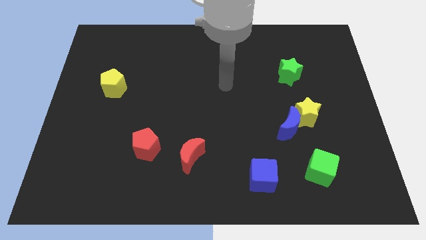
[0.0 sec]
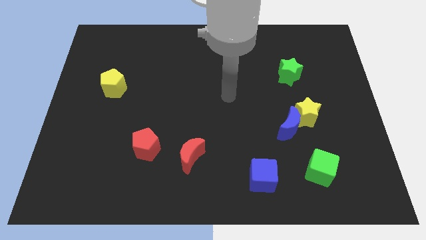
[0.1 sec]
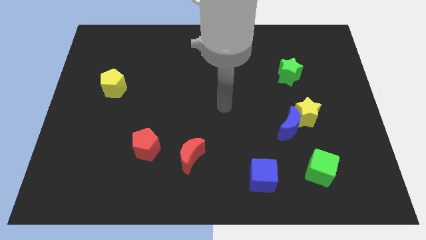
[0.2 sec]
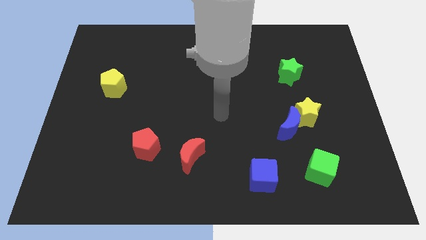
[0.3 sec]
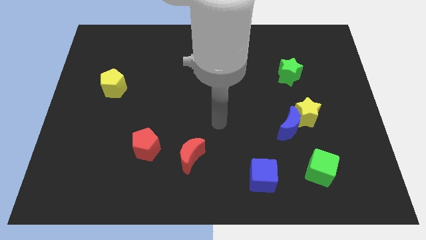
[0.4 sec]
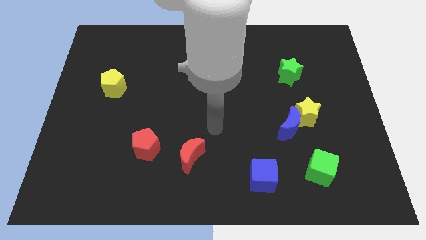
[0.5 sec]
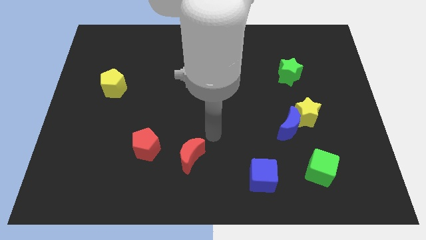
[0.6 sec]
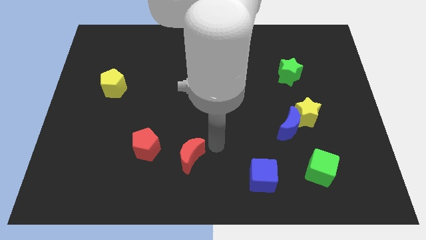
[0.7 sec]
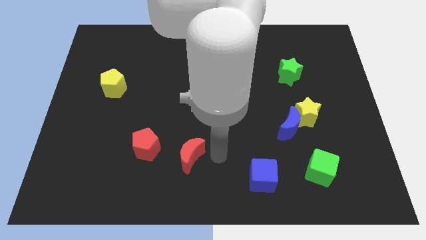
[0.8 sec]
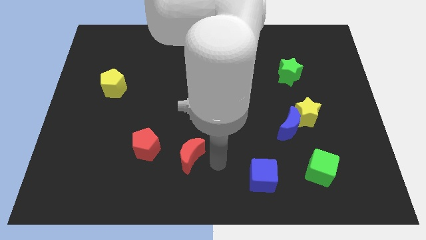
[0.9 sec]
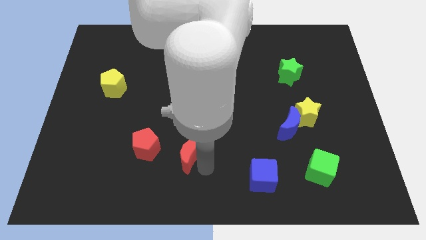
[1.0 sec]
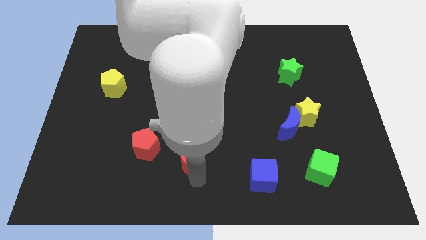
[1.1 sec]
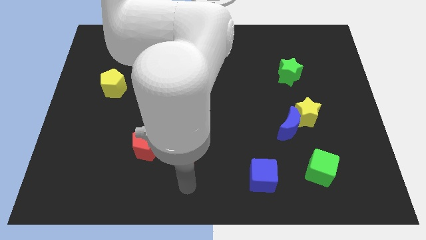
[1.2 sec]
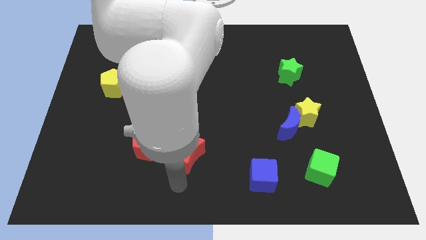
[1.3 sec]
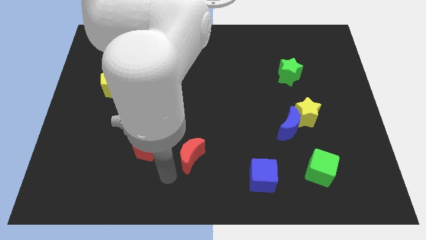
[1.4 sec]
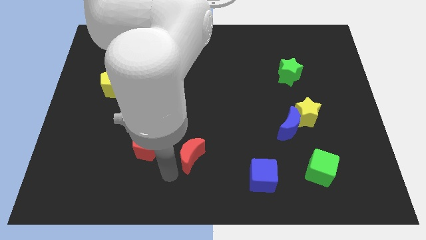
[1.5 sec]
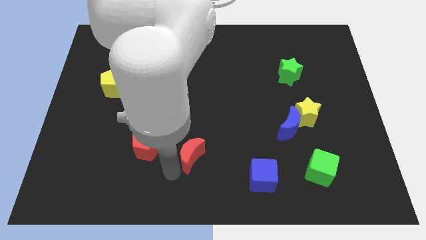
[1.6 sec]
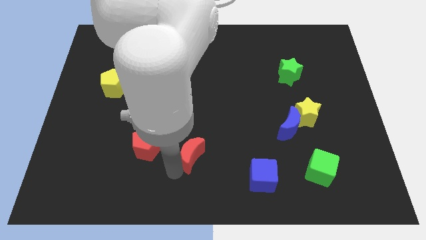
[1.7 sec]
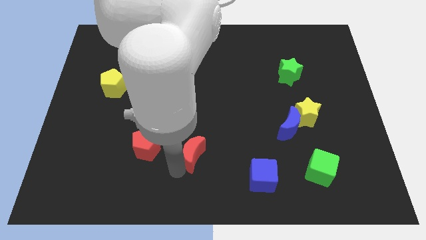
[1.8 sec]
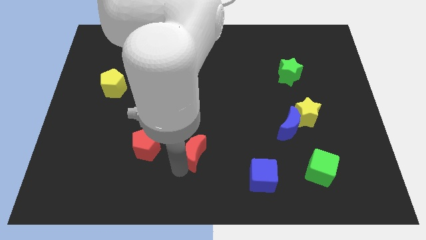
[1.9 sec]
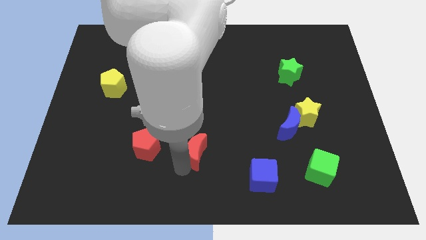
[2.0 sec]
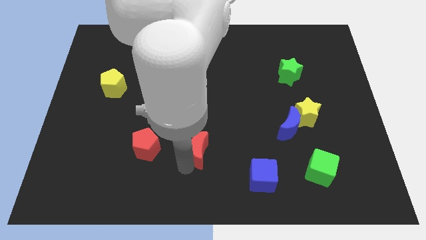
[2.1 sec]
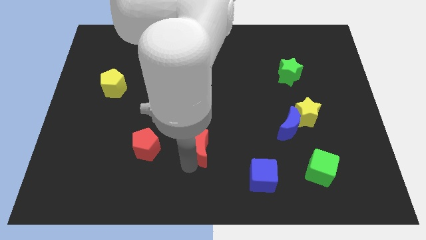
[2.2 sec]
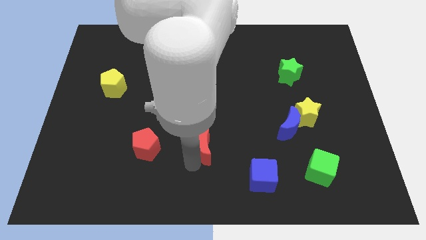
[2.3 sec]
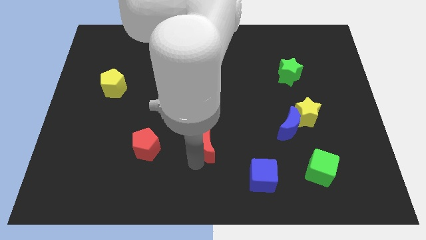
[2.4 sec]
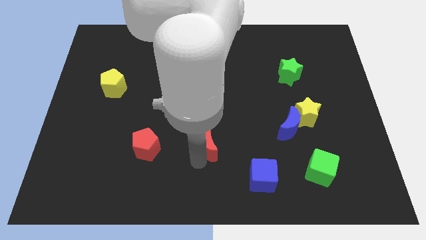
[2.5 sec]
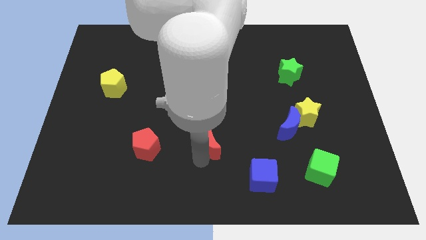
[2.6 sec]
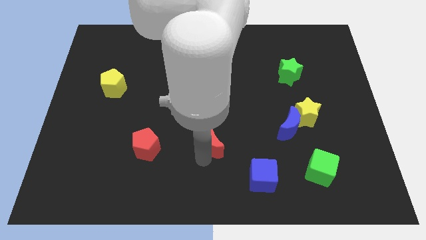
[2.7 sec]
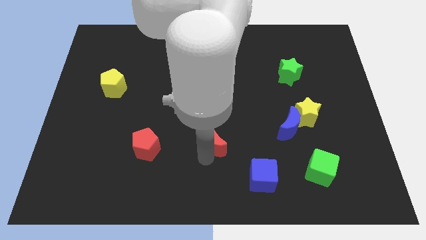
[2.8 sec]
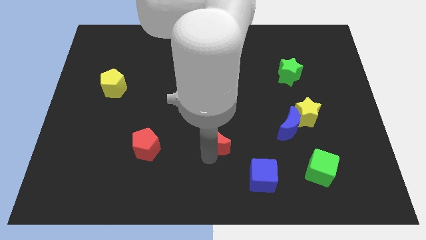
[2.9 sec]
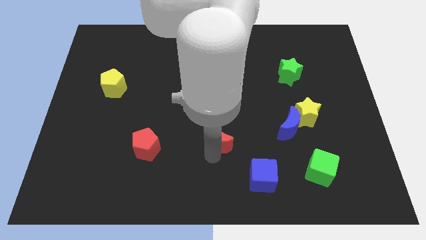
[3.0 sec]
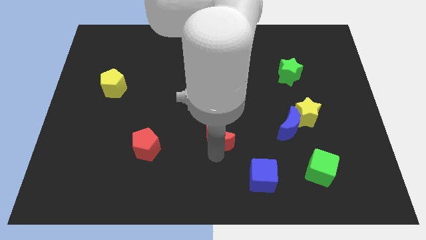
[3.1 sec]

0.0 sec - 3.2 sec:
slightly push the red moon upwards and then to the right

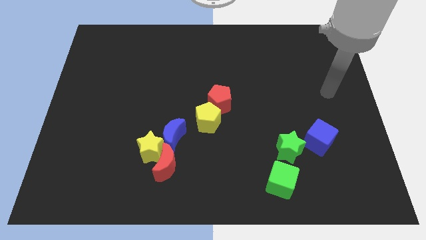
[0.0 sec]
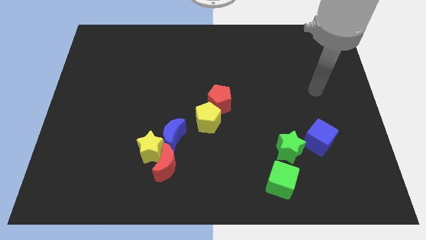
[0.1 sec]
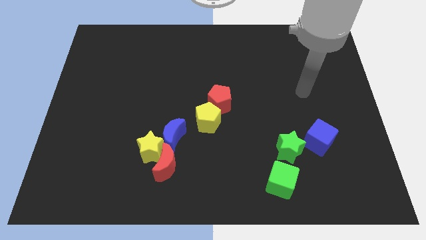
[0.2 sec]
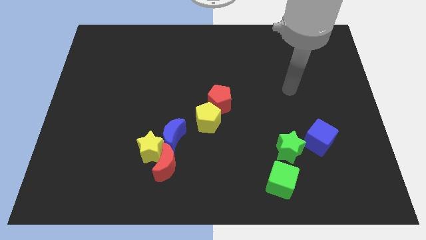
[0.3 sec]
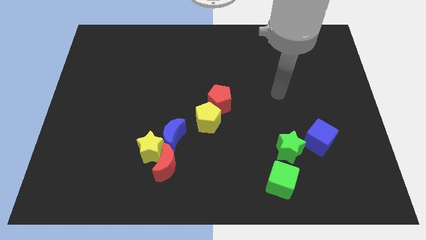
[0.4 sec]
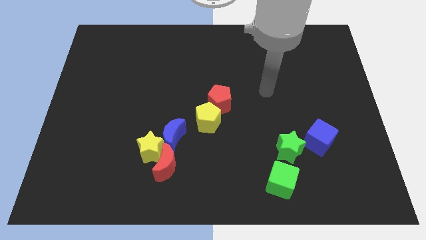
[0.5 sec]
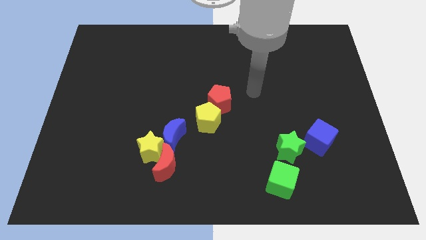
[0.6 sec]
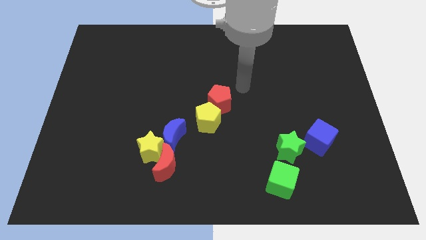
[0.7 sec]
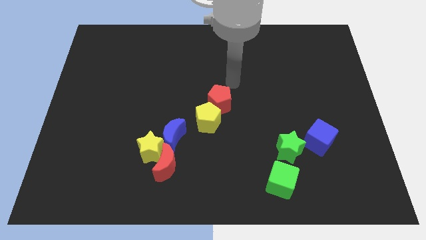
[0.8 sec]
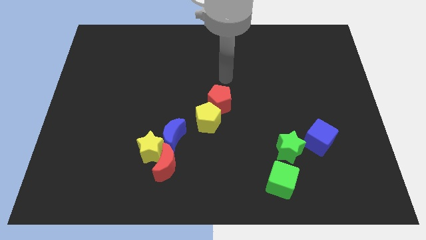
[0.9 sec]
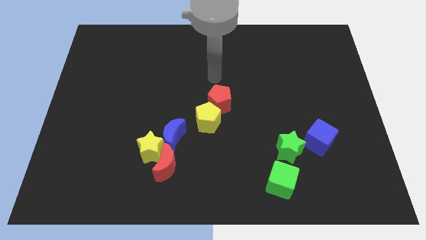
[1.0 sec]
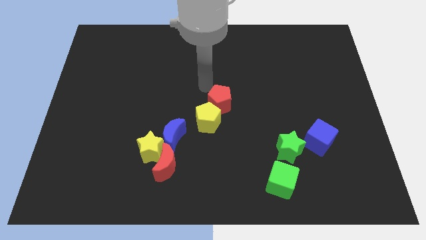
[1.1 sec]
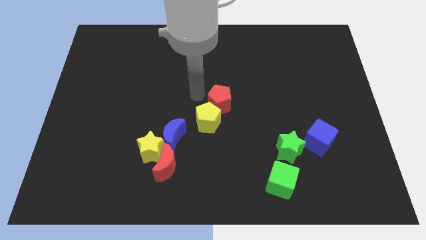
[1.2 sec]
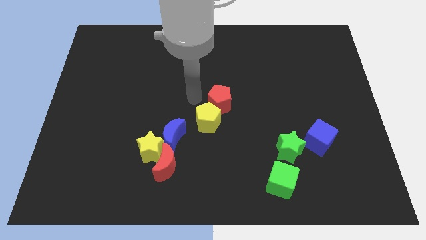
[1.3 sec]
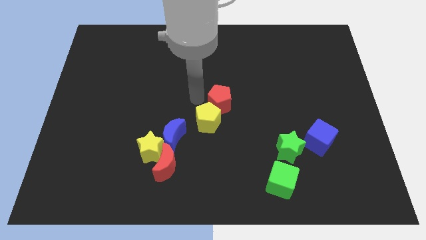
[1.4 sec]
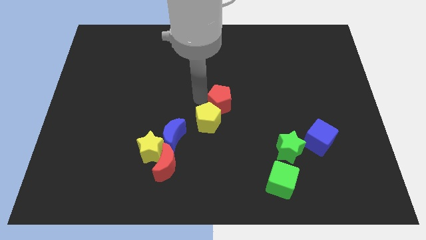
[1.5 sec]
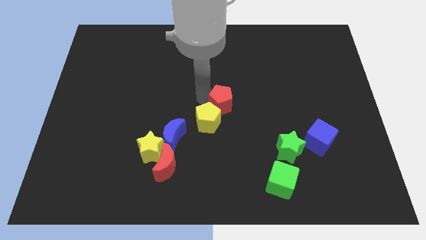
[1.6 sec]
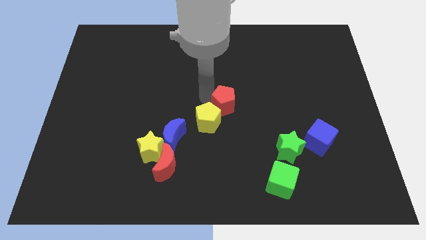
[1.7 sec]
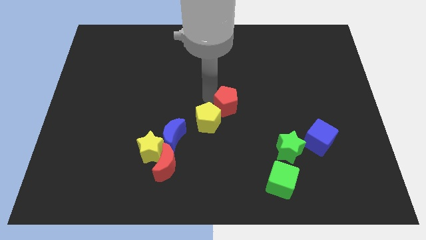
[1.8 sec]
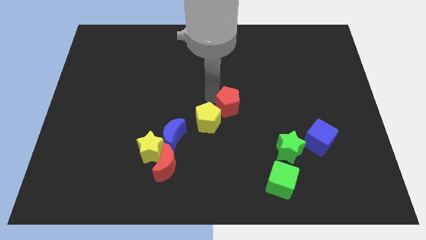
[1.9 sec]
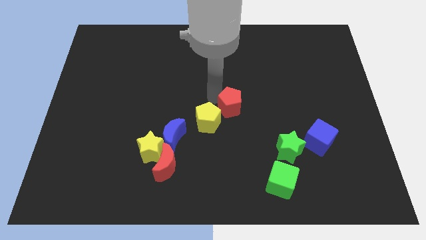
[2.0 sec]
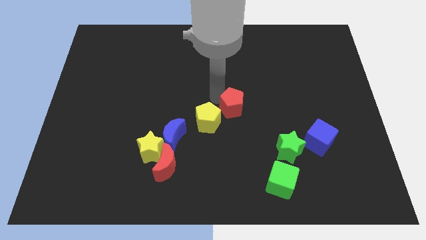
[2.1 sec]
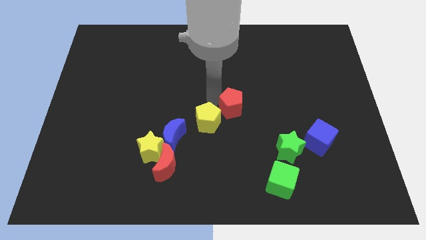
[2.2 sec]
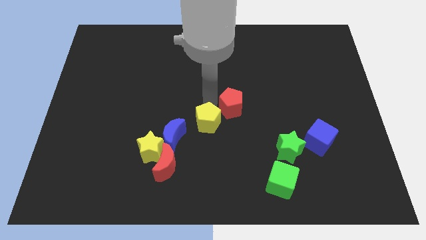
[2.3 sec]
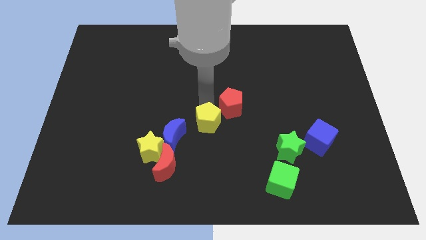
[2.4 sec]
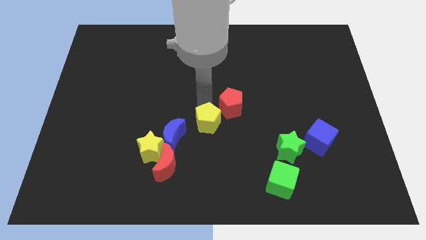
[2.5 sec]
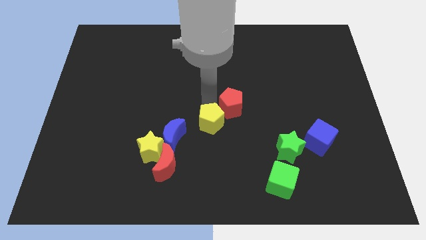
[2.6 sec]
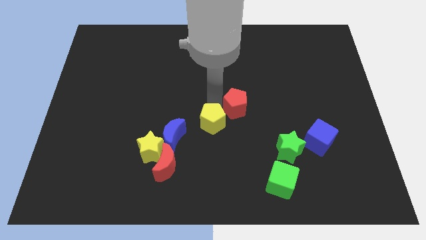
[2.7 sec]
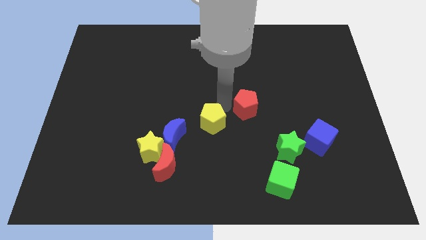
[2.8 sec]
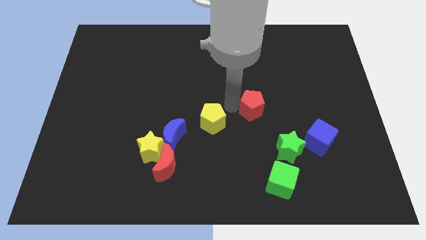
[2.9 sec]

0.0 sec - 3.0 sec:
push the red pentagon right somewhat

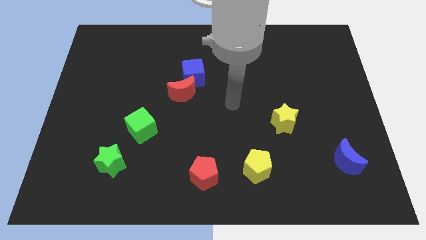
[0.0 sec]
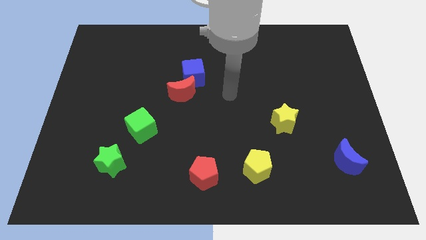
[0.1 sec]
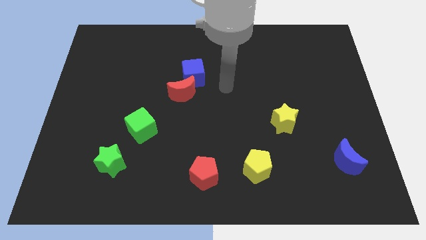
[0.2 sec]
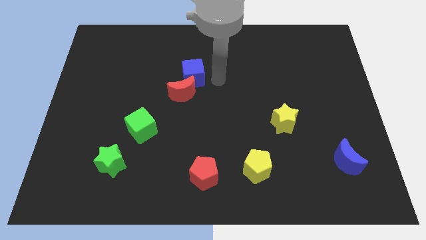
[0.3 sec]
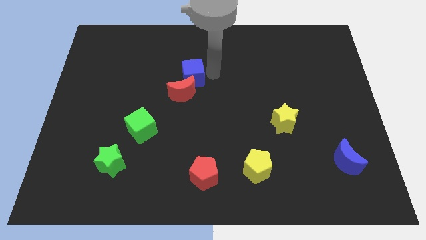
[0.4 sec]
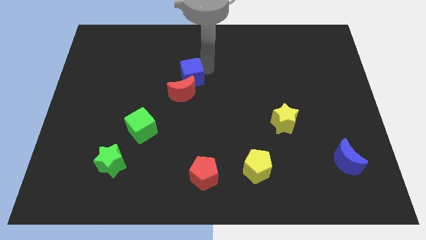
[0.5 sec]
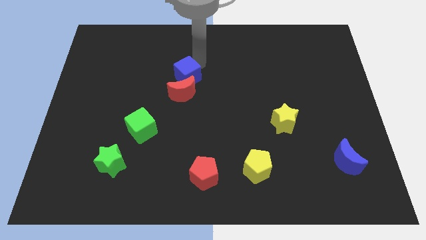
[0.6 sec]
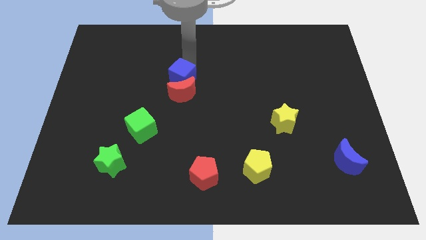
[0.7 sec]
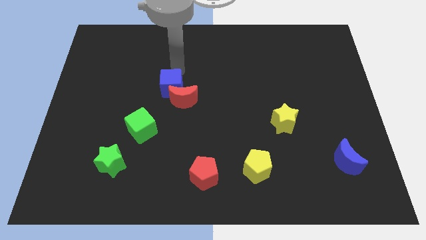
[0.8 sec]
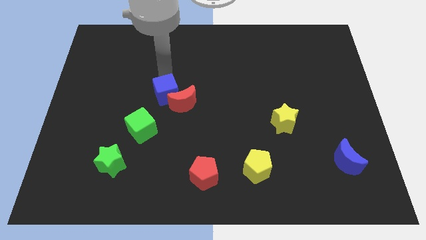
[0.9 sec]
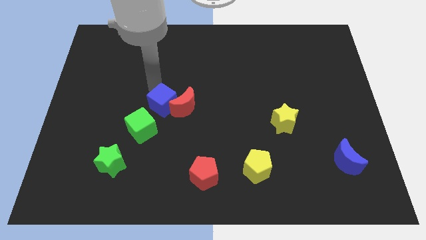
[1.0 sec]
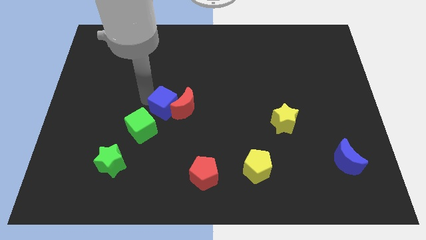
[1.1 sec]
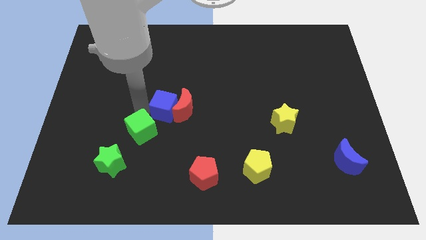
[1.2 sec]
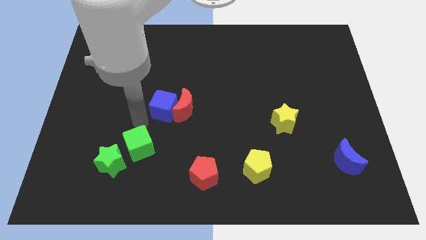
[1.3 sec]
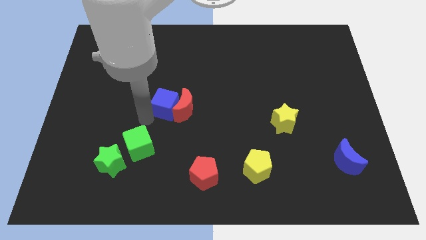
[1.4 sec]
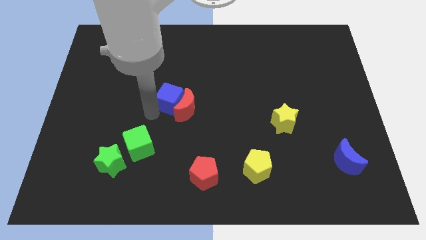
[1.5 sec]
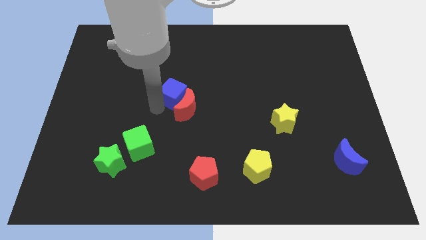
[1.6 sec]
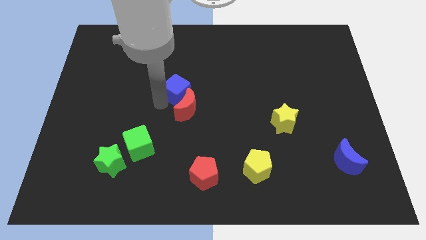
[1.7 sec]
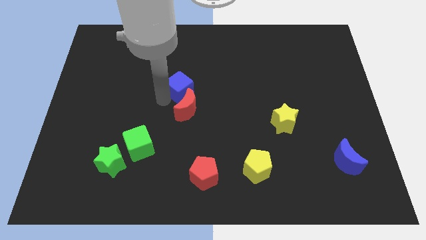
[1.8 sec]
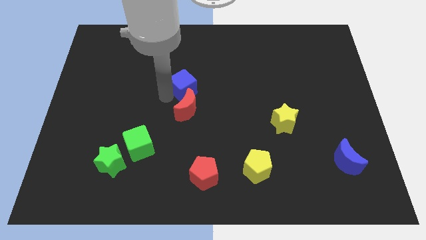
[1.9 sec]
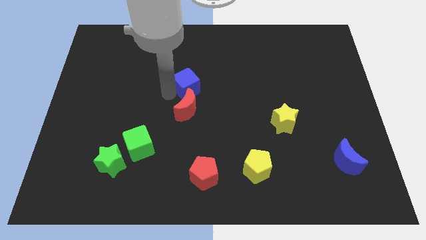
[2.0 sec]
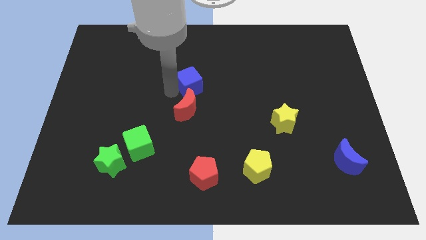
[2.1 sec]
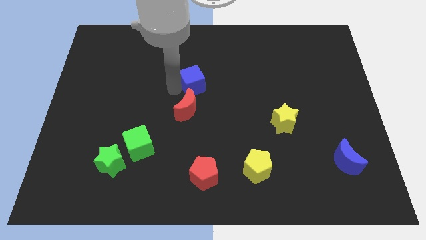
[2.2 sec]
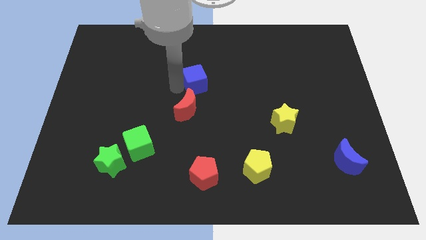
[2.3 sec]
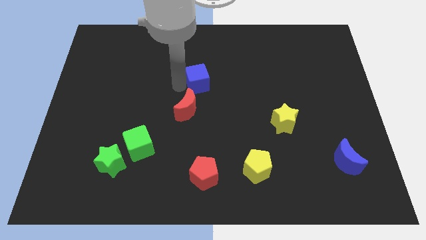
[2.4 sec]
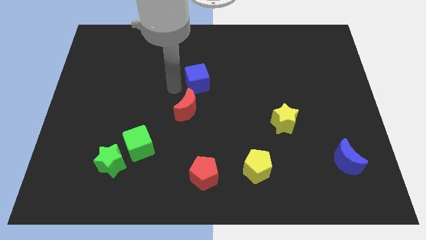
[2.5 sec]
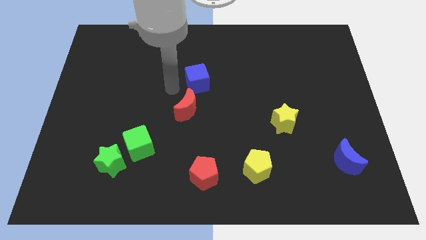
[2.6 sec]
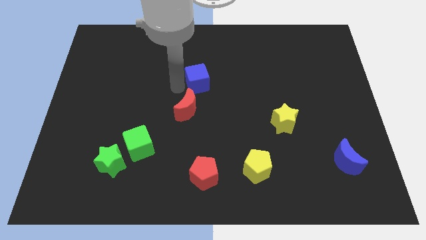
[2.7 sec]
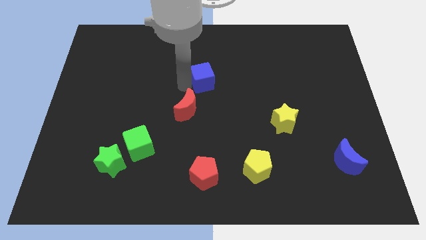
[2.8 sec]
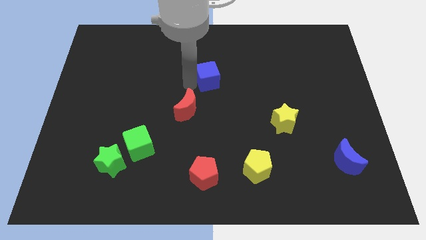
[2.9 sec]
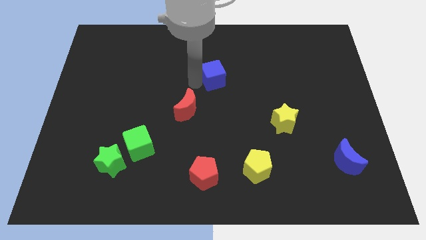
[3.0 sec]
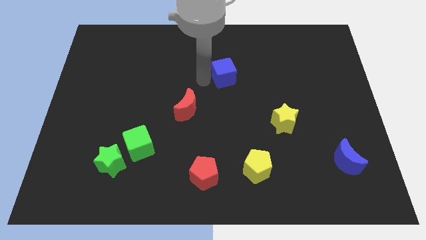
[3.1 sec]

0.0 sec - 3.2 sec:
slightly move the blue cube right
